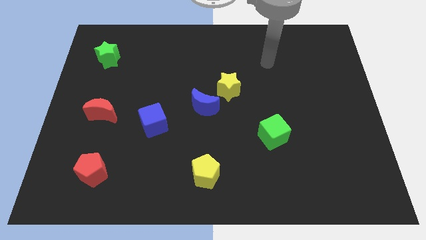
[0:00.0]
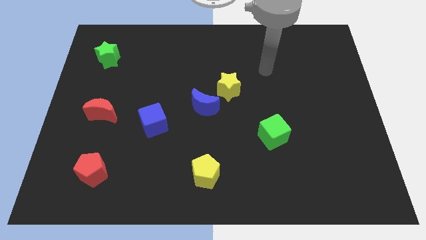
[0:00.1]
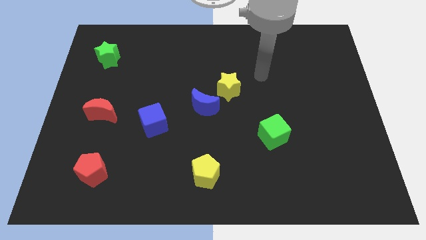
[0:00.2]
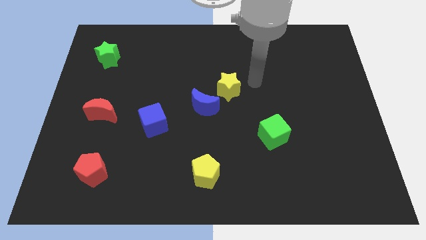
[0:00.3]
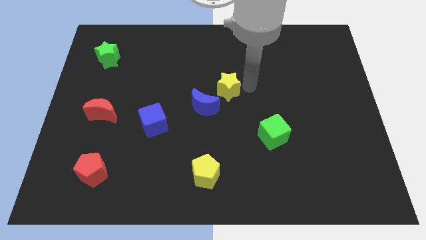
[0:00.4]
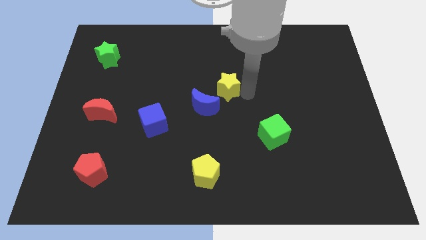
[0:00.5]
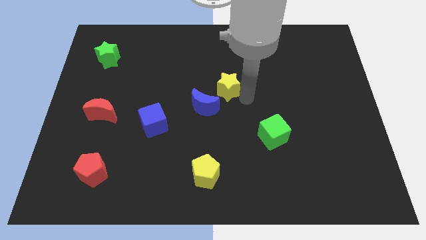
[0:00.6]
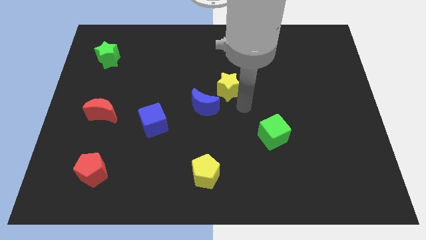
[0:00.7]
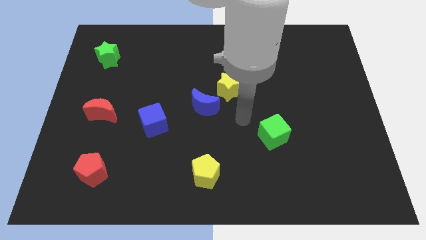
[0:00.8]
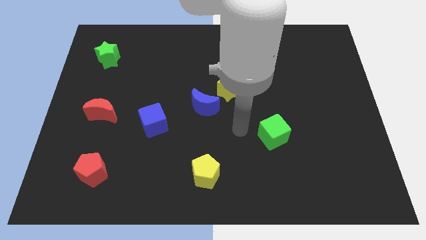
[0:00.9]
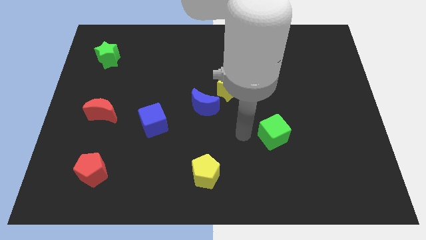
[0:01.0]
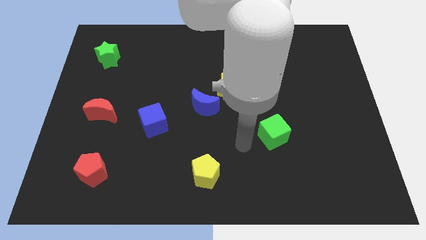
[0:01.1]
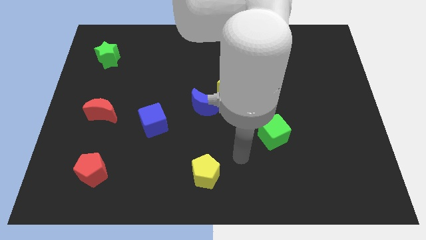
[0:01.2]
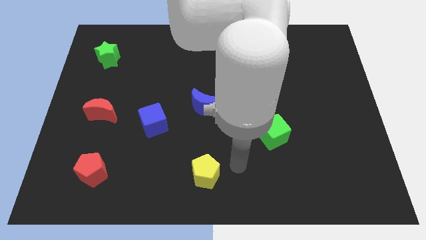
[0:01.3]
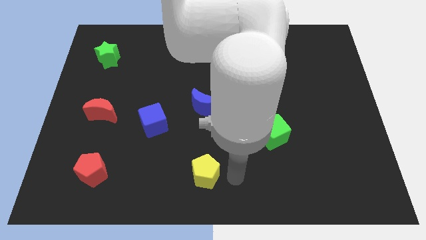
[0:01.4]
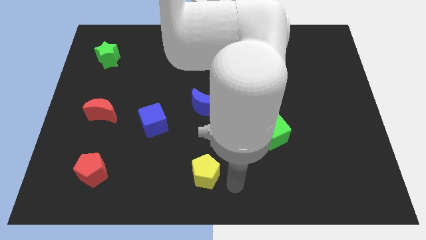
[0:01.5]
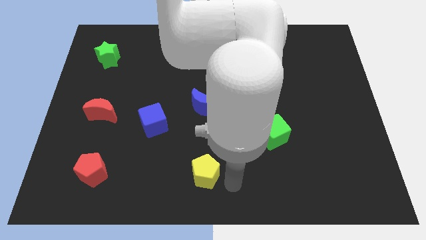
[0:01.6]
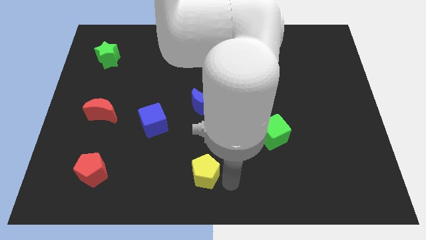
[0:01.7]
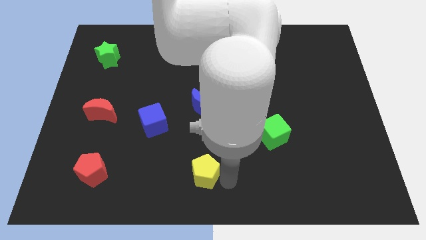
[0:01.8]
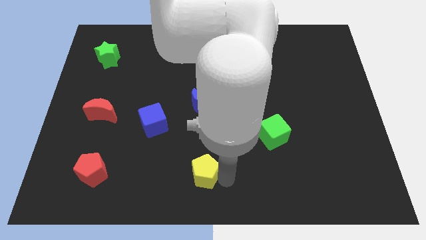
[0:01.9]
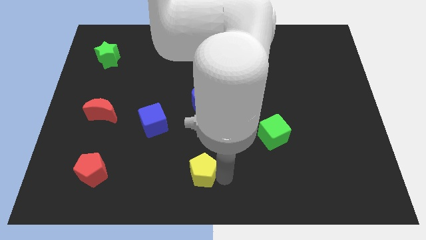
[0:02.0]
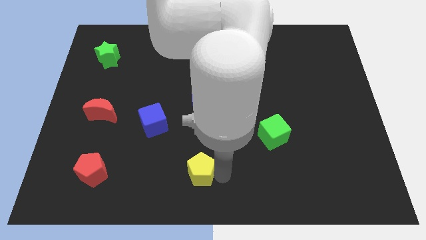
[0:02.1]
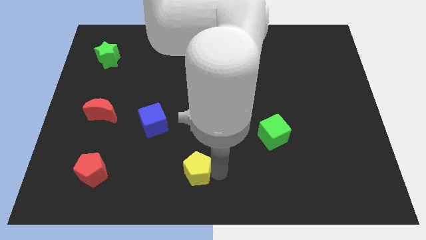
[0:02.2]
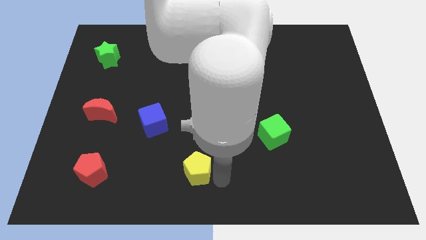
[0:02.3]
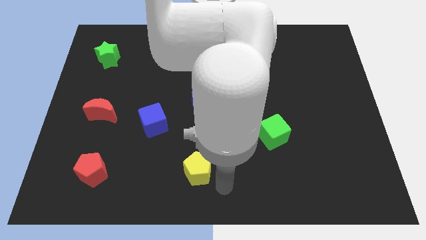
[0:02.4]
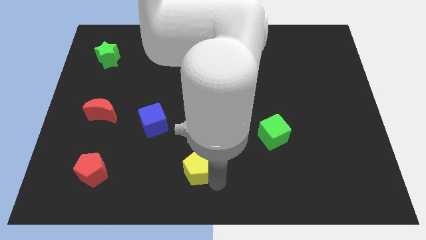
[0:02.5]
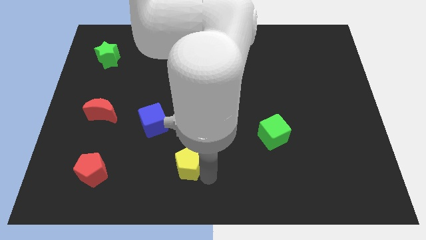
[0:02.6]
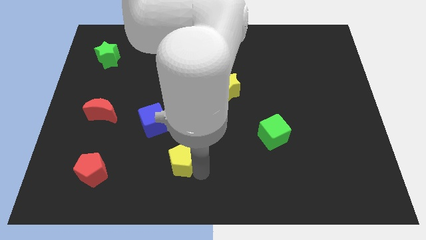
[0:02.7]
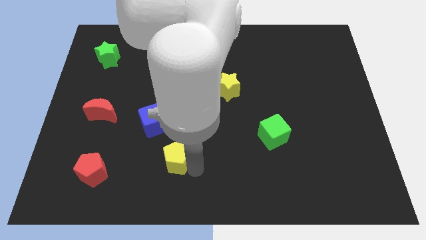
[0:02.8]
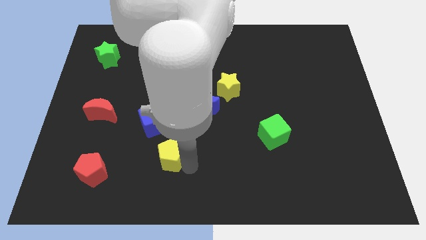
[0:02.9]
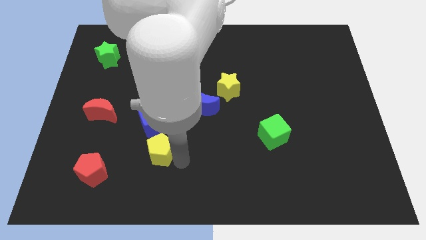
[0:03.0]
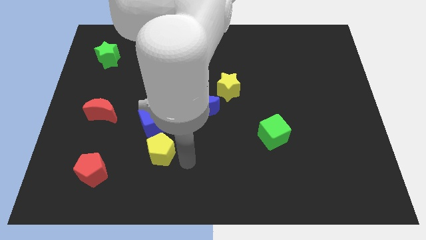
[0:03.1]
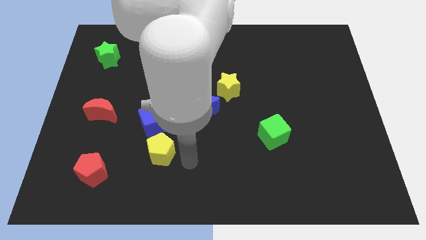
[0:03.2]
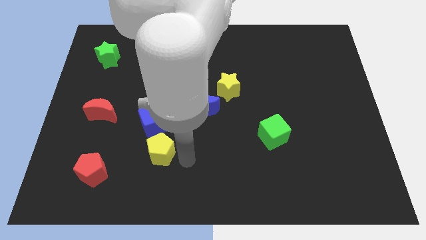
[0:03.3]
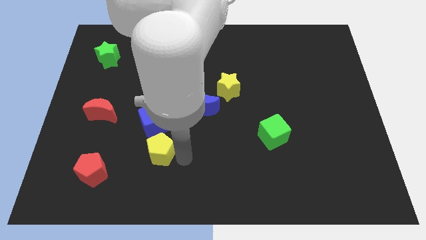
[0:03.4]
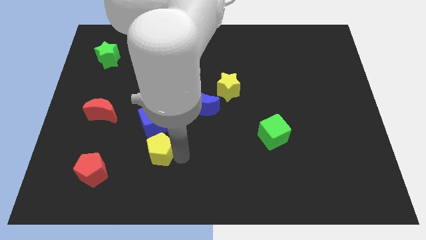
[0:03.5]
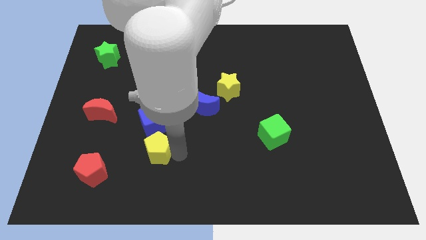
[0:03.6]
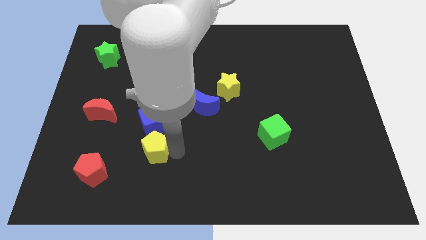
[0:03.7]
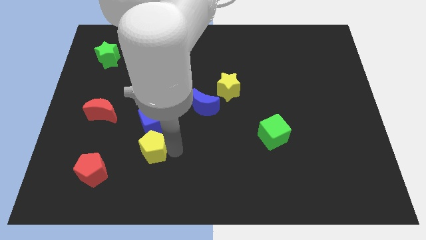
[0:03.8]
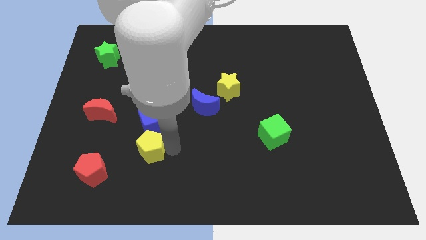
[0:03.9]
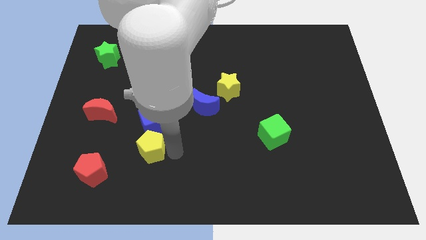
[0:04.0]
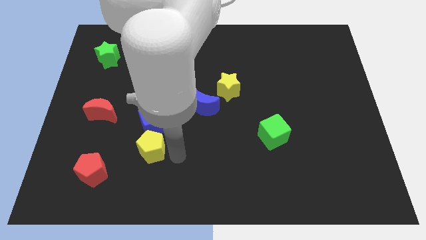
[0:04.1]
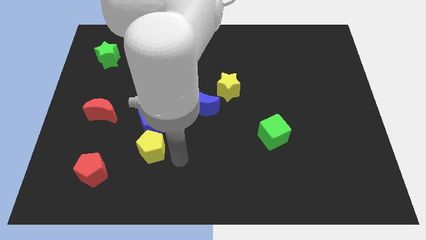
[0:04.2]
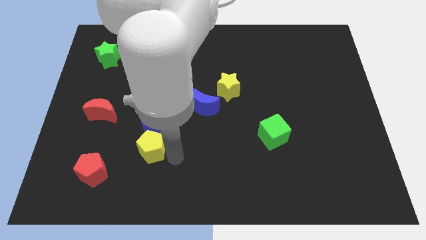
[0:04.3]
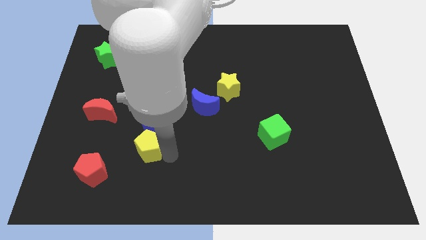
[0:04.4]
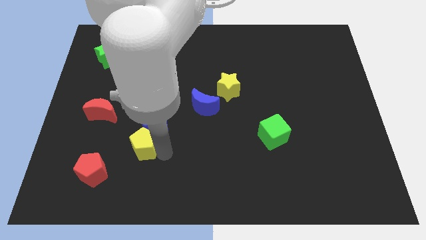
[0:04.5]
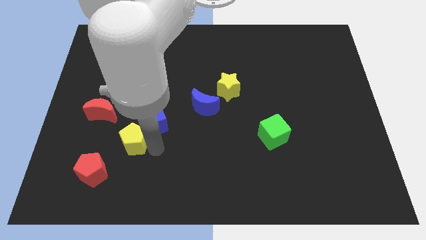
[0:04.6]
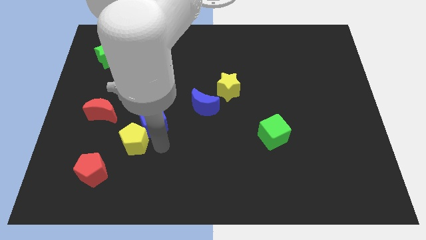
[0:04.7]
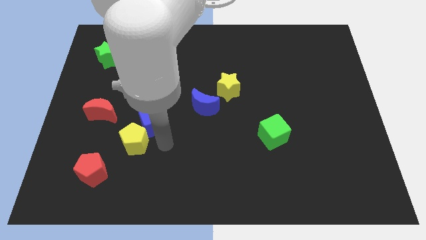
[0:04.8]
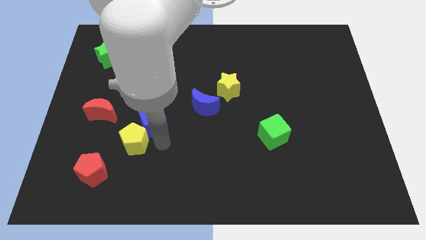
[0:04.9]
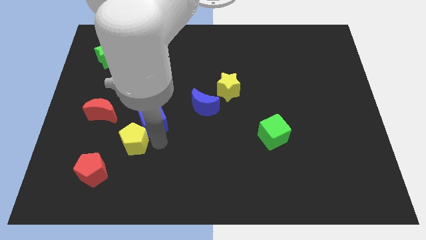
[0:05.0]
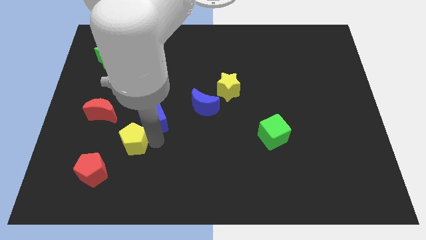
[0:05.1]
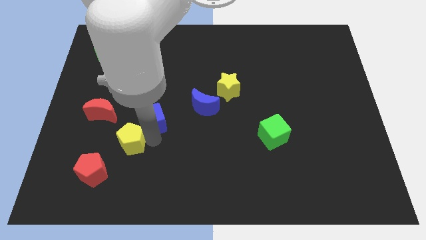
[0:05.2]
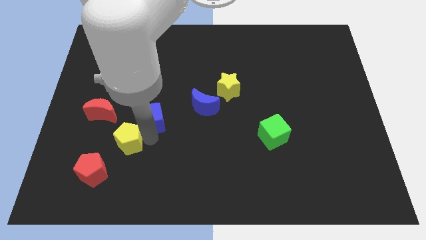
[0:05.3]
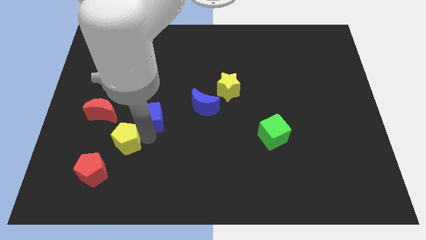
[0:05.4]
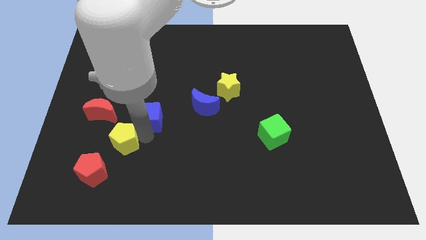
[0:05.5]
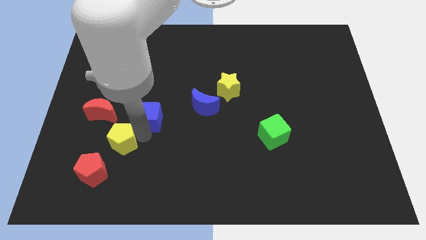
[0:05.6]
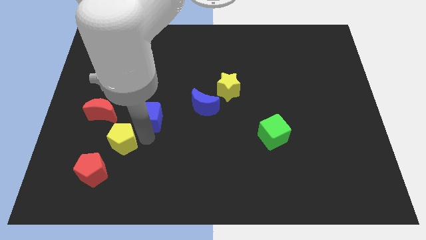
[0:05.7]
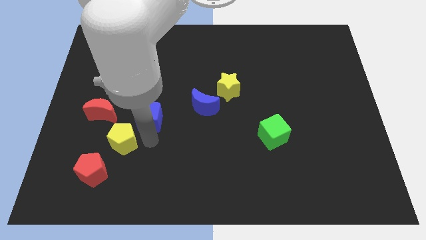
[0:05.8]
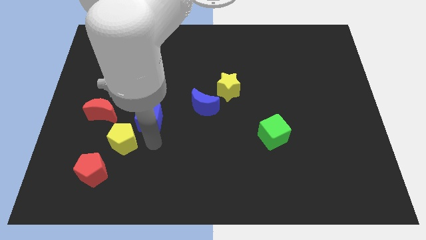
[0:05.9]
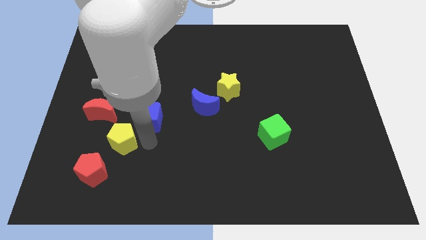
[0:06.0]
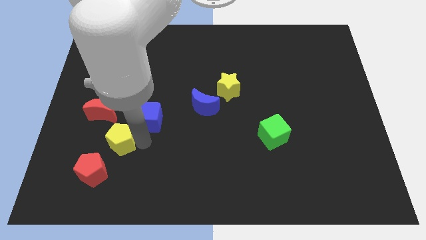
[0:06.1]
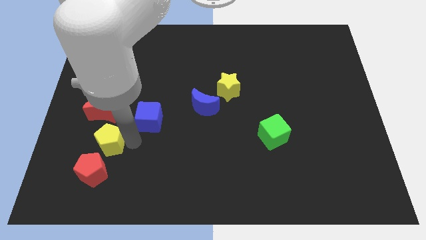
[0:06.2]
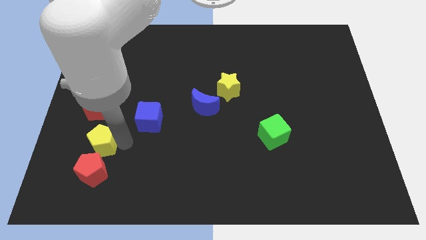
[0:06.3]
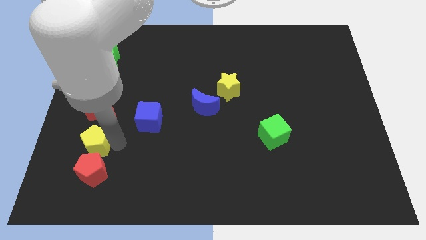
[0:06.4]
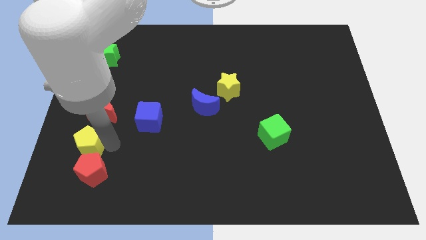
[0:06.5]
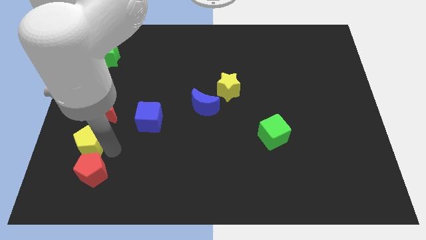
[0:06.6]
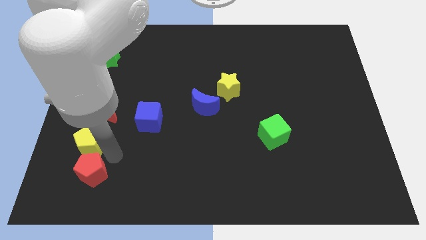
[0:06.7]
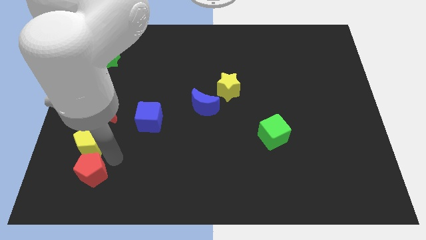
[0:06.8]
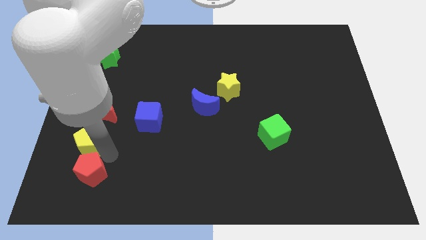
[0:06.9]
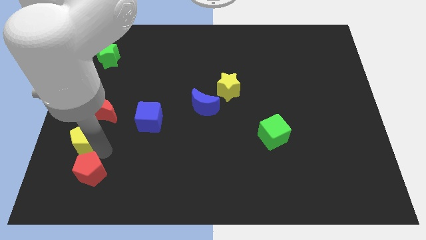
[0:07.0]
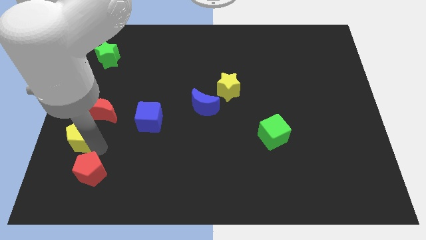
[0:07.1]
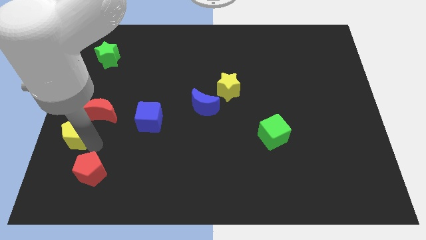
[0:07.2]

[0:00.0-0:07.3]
move the yellow pentagon to the center left
